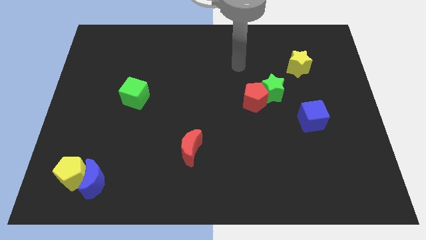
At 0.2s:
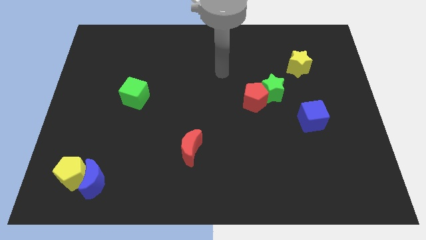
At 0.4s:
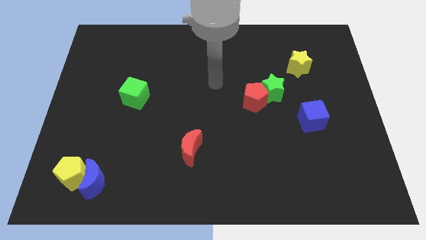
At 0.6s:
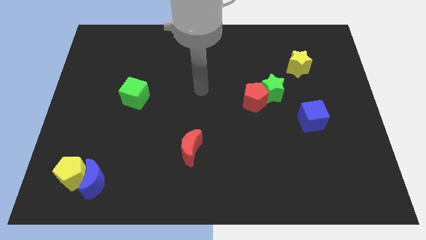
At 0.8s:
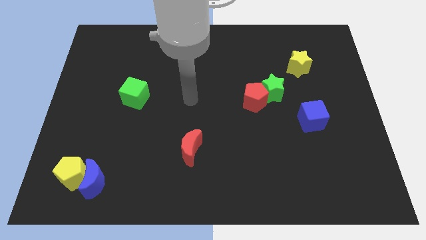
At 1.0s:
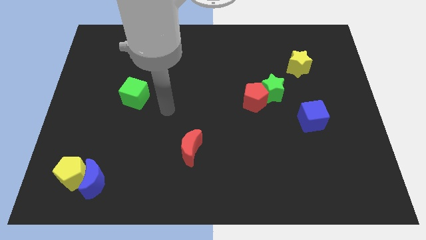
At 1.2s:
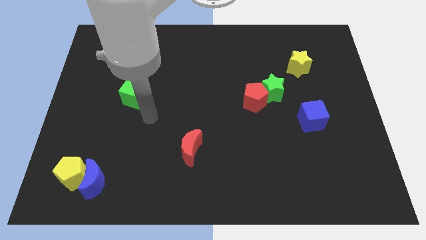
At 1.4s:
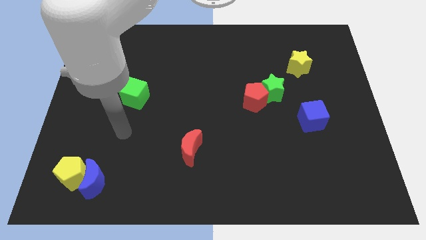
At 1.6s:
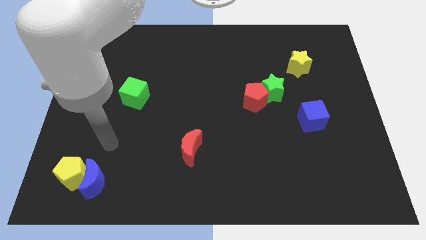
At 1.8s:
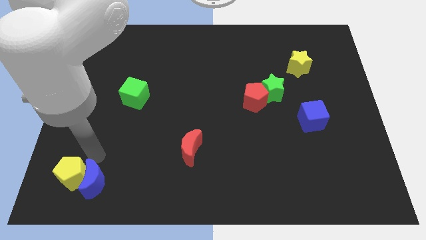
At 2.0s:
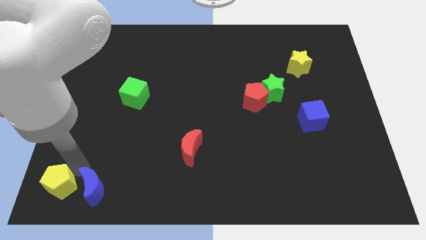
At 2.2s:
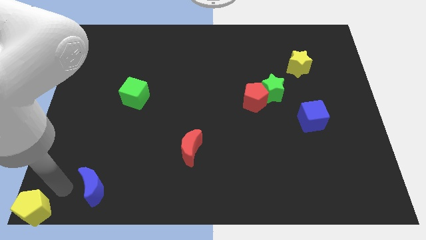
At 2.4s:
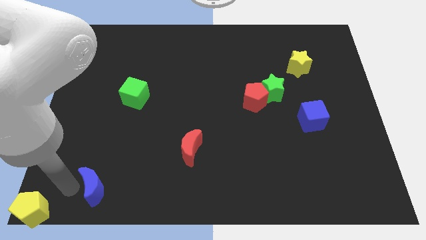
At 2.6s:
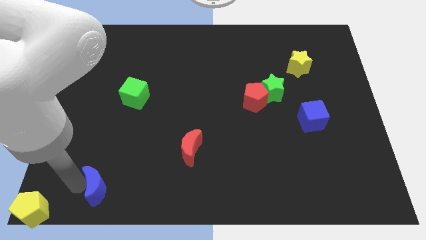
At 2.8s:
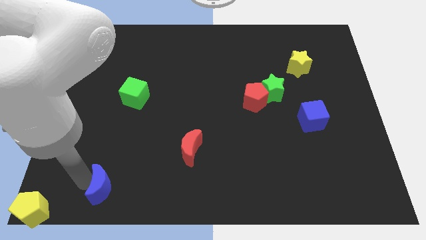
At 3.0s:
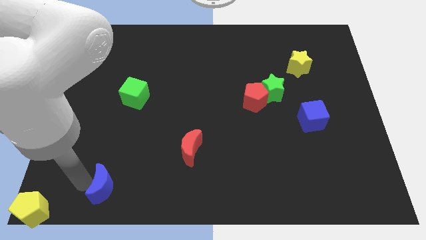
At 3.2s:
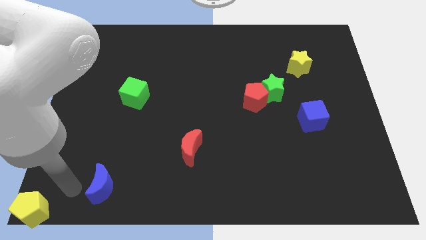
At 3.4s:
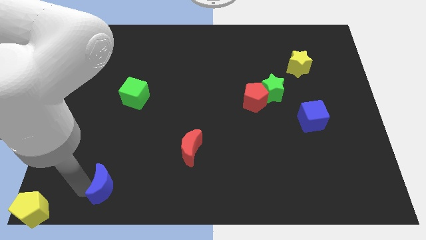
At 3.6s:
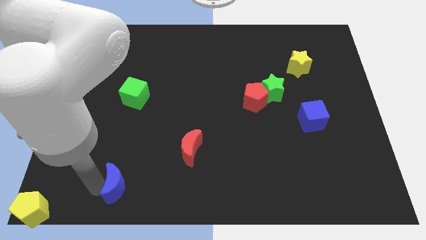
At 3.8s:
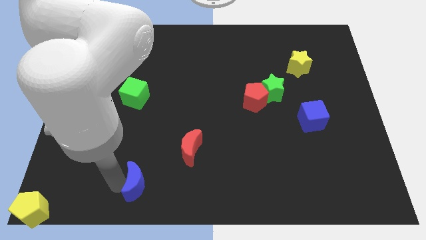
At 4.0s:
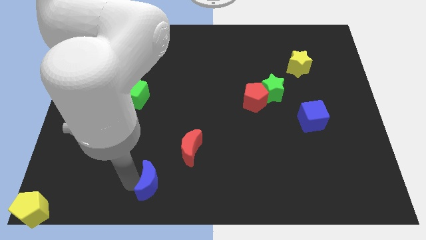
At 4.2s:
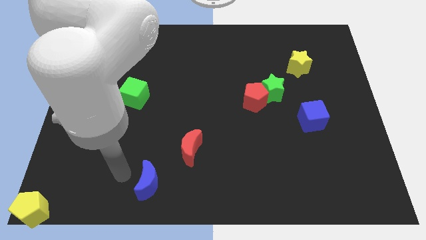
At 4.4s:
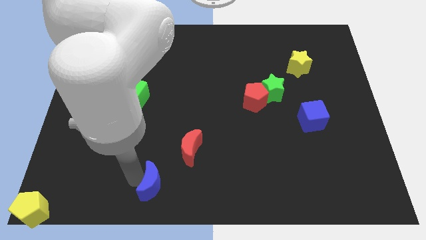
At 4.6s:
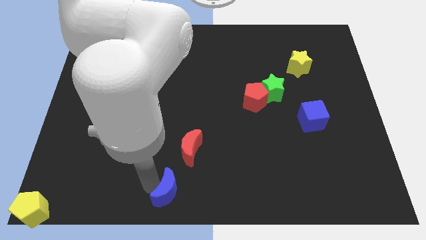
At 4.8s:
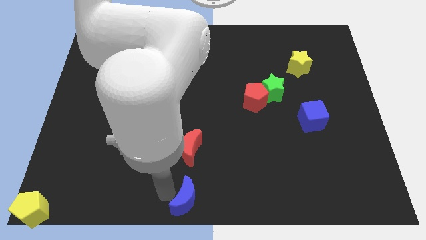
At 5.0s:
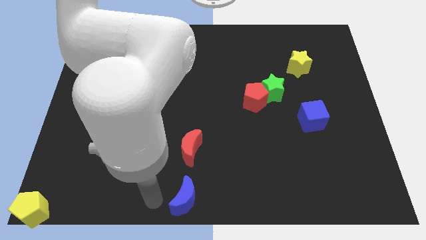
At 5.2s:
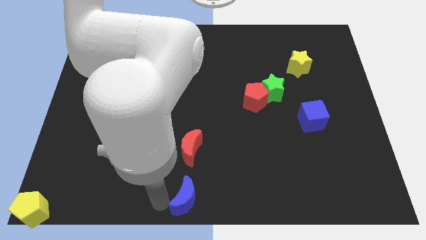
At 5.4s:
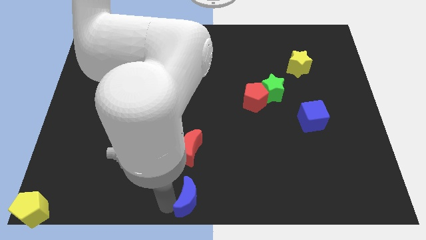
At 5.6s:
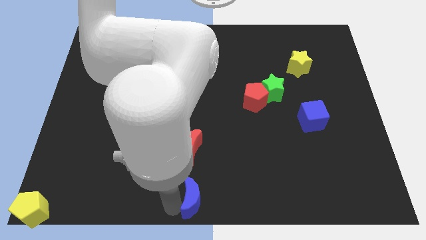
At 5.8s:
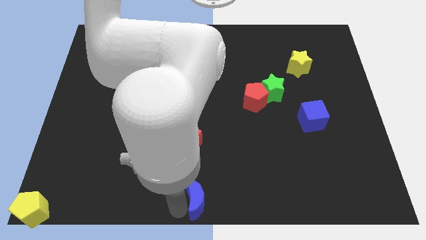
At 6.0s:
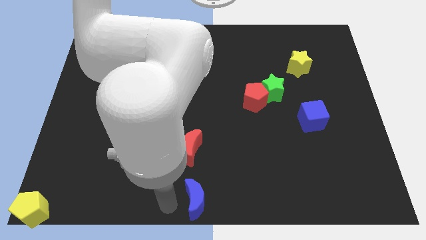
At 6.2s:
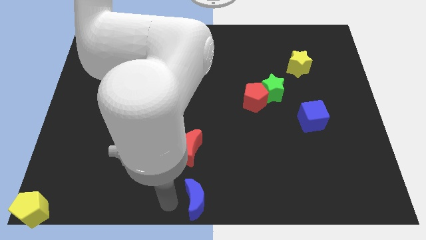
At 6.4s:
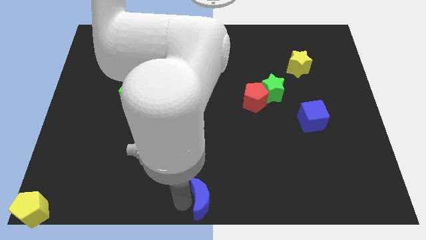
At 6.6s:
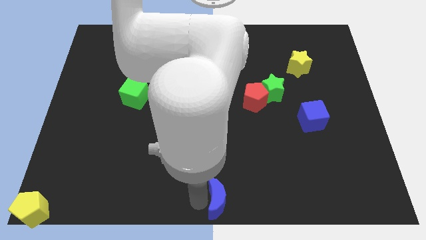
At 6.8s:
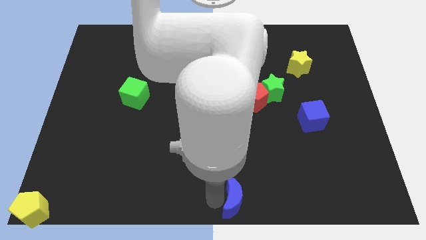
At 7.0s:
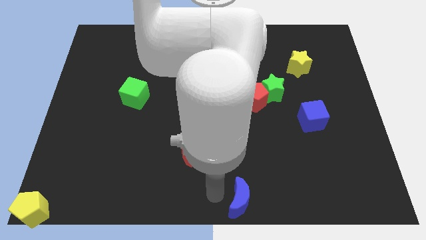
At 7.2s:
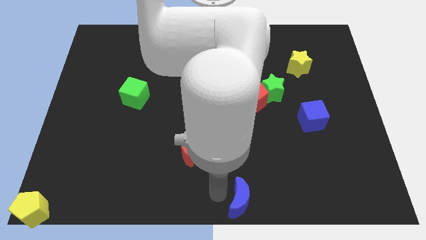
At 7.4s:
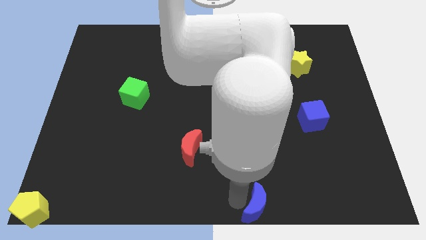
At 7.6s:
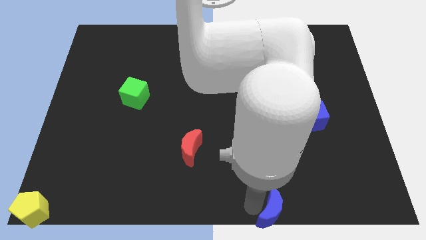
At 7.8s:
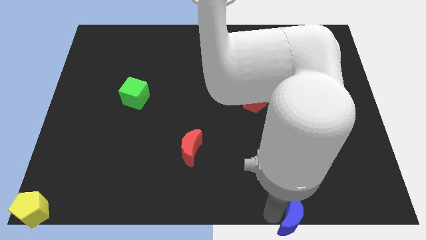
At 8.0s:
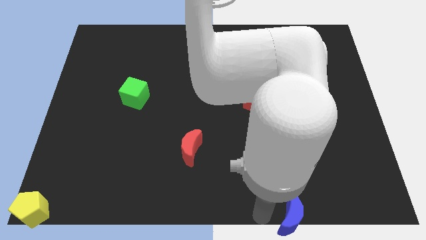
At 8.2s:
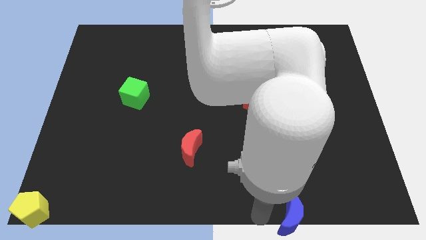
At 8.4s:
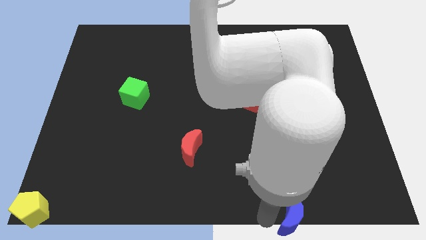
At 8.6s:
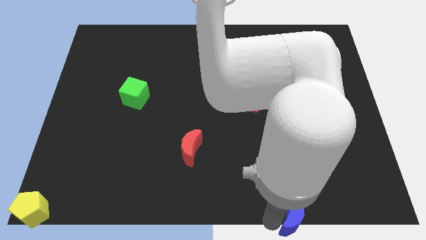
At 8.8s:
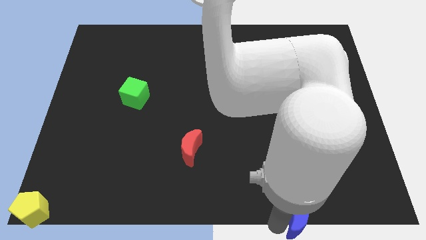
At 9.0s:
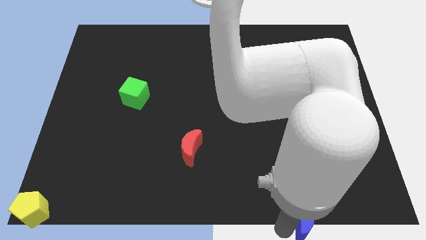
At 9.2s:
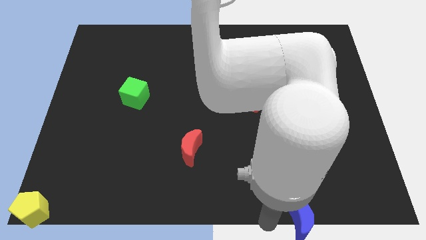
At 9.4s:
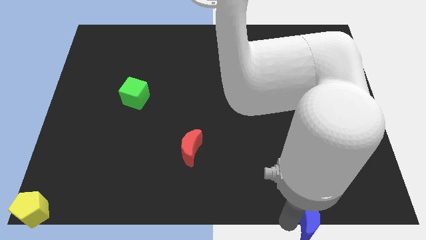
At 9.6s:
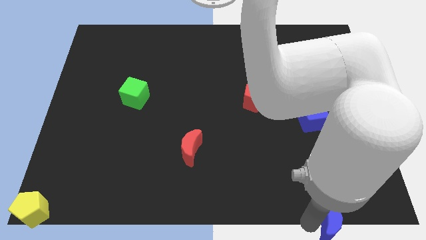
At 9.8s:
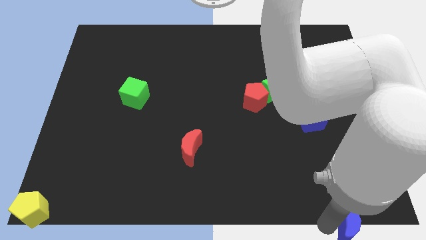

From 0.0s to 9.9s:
move the blue moon to the bottom right

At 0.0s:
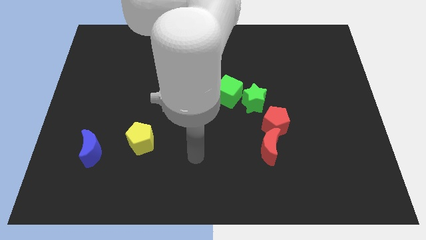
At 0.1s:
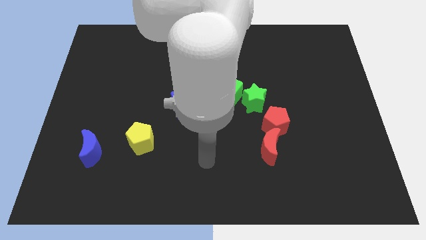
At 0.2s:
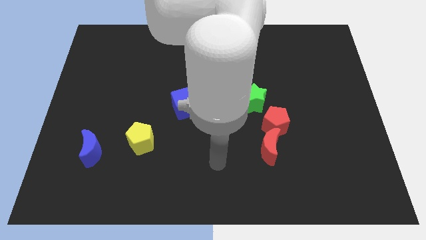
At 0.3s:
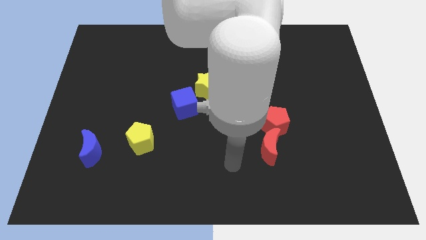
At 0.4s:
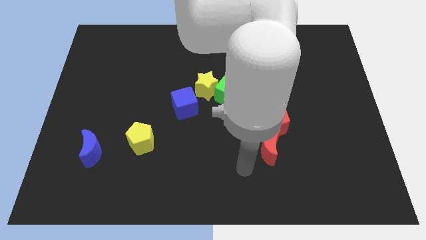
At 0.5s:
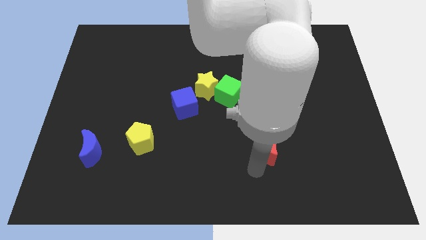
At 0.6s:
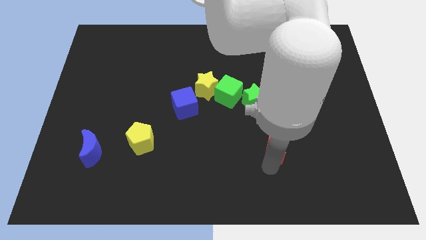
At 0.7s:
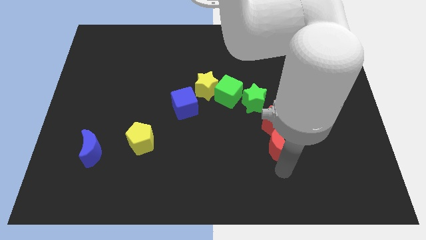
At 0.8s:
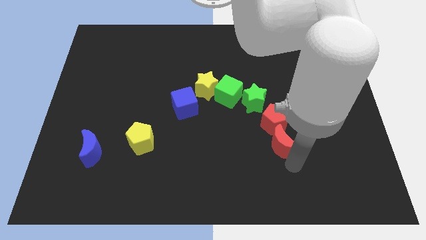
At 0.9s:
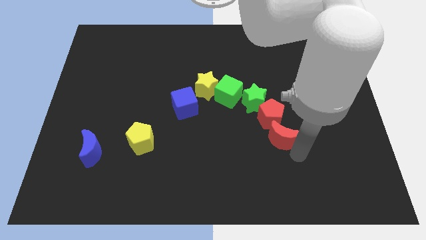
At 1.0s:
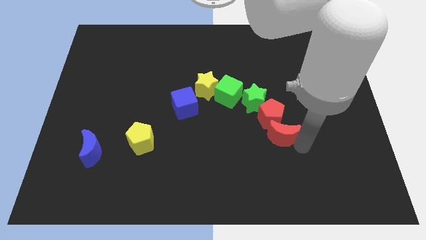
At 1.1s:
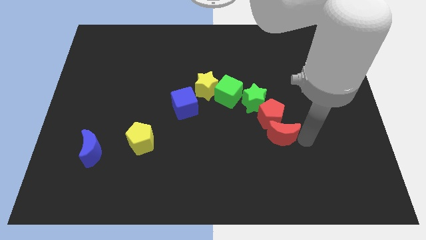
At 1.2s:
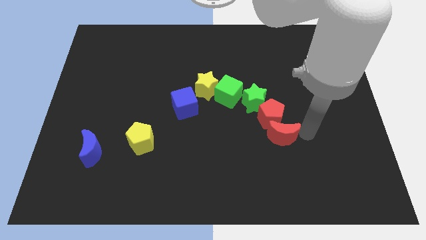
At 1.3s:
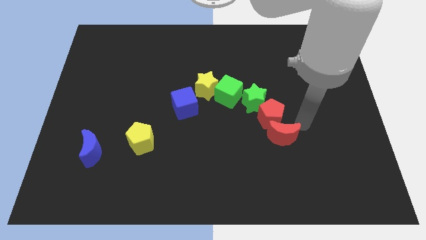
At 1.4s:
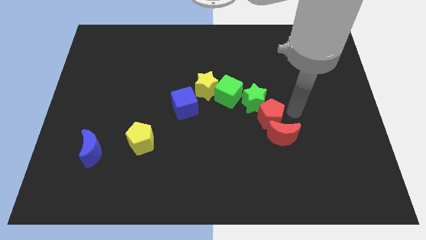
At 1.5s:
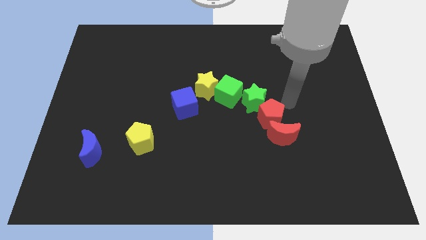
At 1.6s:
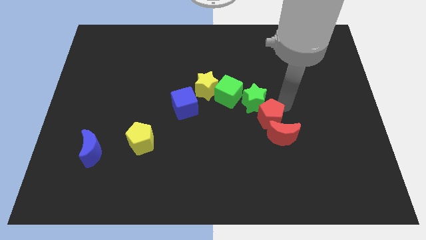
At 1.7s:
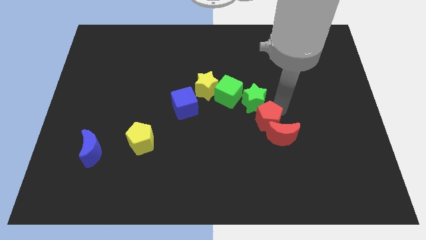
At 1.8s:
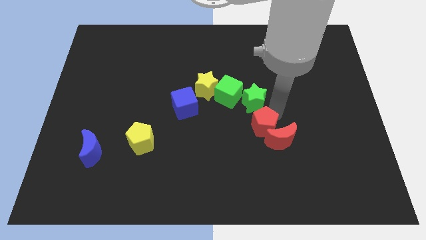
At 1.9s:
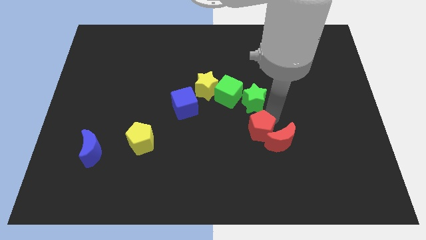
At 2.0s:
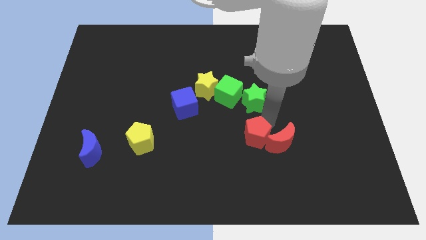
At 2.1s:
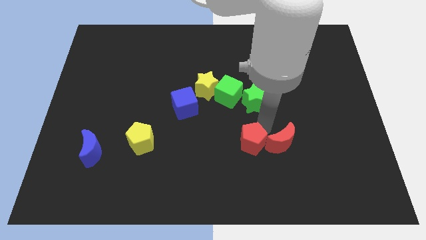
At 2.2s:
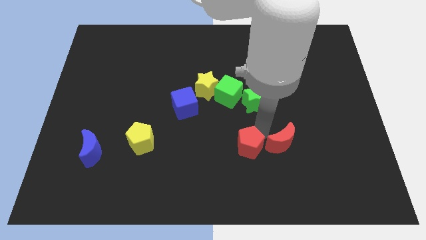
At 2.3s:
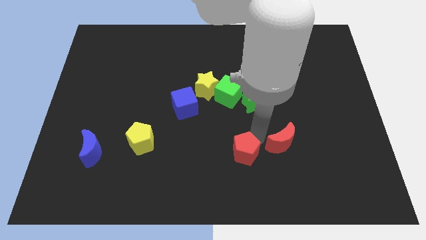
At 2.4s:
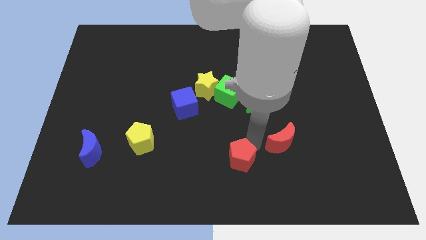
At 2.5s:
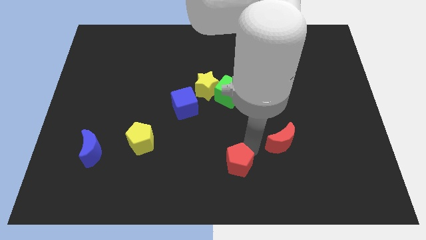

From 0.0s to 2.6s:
move the red pentagon to the bottom side
